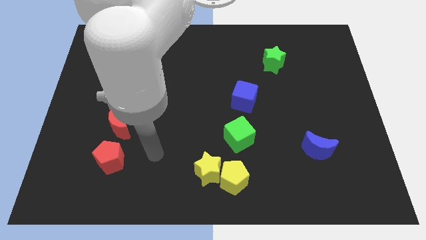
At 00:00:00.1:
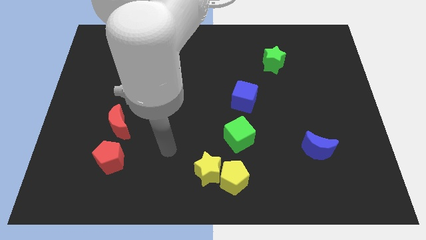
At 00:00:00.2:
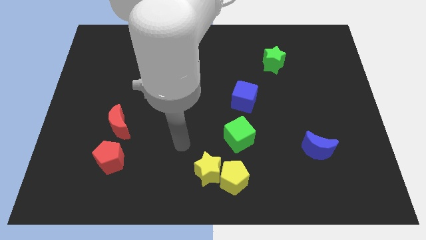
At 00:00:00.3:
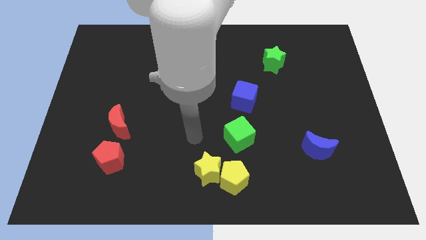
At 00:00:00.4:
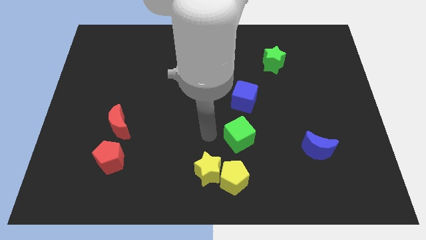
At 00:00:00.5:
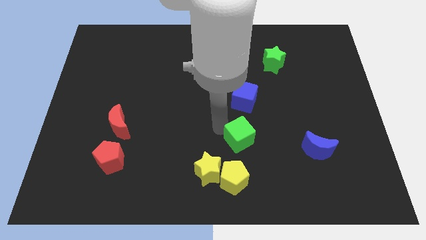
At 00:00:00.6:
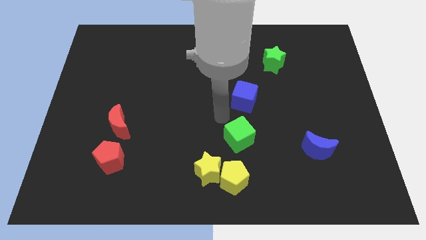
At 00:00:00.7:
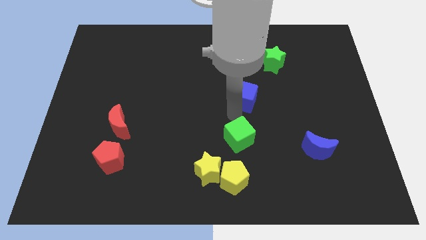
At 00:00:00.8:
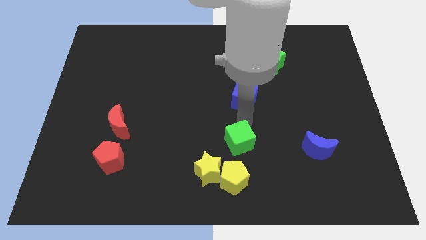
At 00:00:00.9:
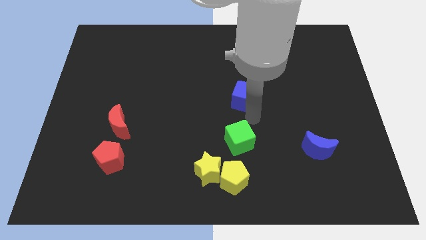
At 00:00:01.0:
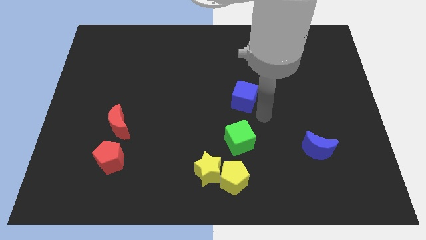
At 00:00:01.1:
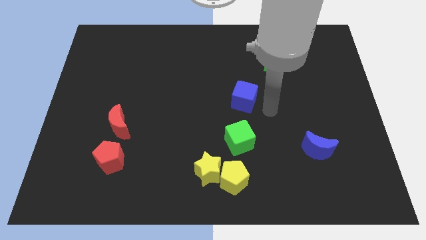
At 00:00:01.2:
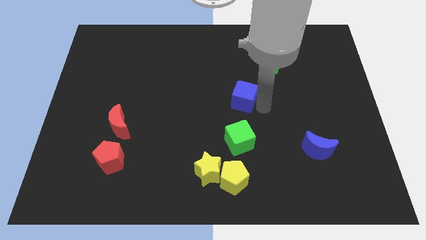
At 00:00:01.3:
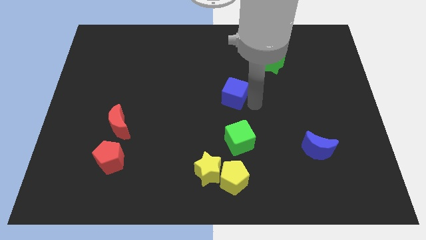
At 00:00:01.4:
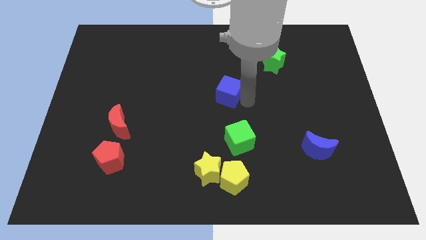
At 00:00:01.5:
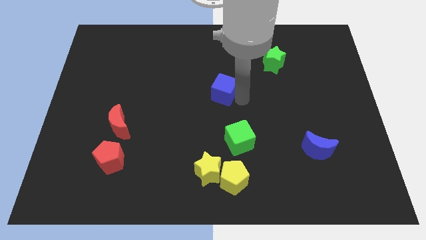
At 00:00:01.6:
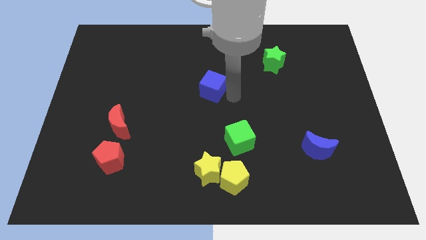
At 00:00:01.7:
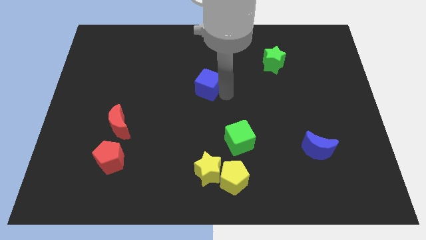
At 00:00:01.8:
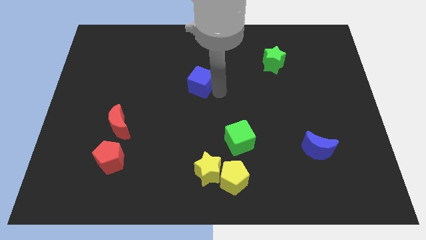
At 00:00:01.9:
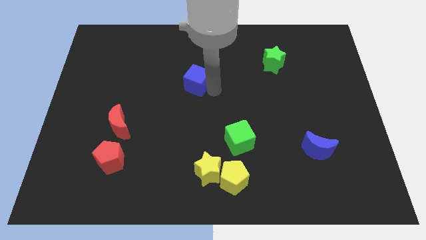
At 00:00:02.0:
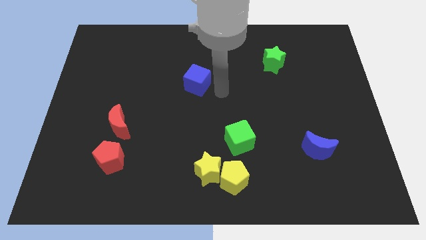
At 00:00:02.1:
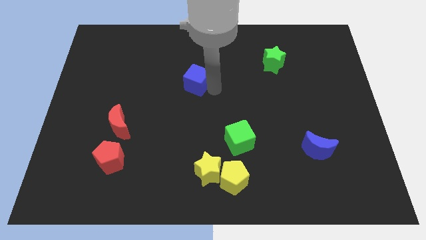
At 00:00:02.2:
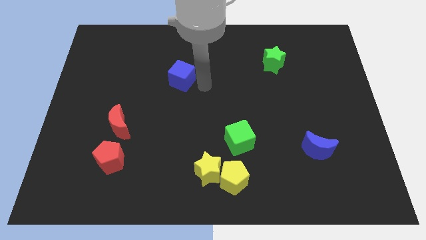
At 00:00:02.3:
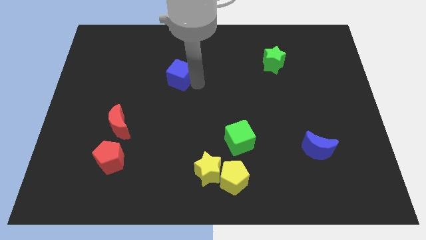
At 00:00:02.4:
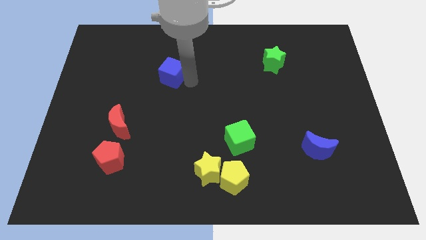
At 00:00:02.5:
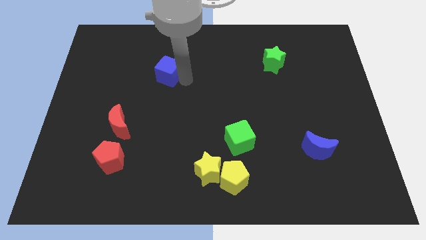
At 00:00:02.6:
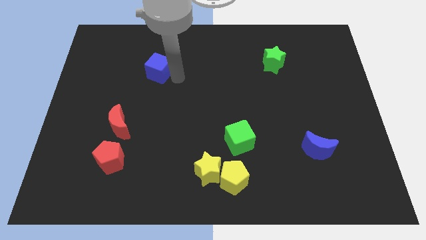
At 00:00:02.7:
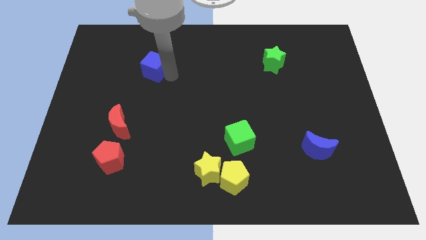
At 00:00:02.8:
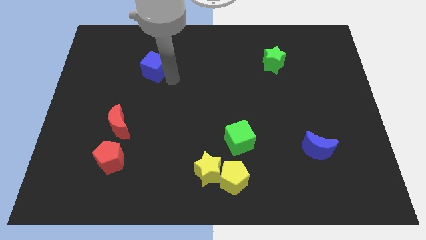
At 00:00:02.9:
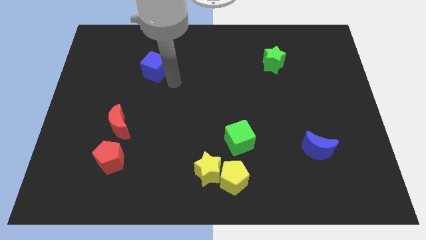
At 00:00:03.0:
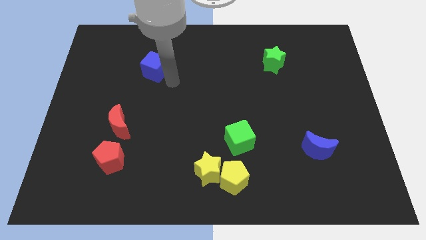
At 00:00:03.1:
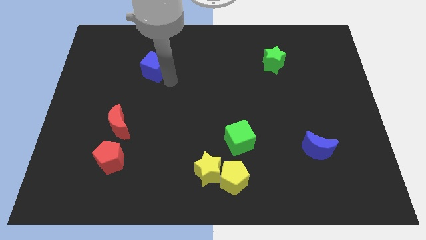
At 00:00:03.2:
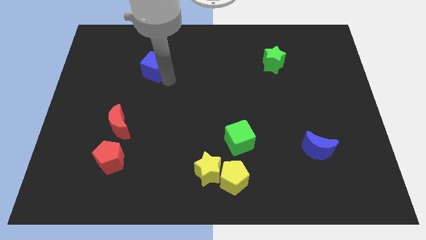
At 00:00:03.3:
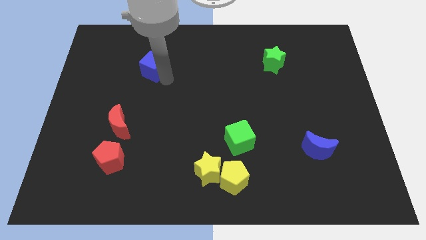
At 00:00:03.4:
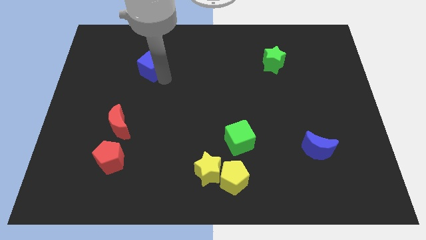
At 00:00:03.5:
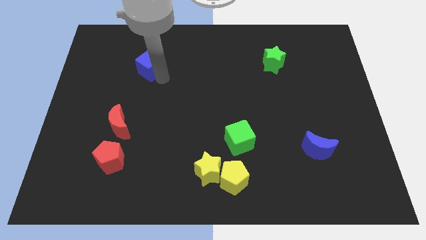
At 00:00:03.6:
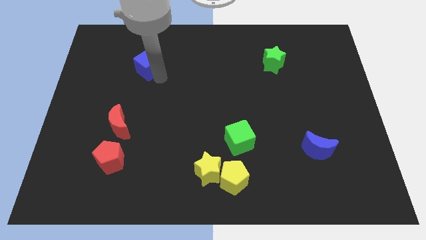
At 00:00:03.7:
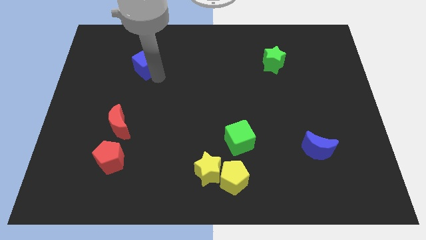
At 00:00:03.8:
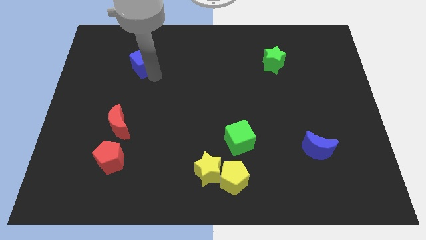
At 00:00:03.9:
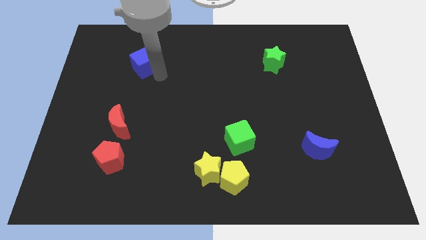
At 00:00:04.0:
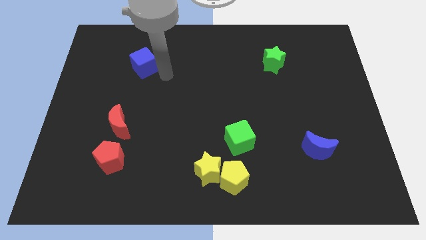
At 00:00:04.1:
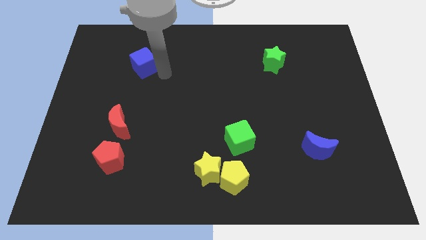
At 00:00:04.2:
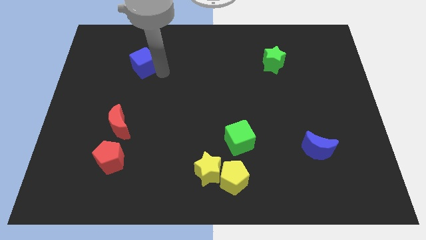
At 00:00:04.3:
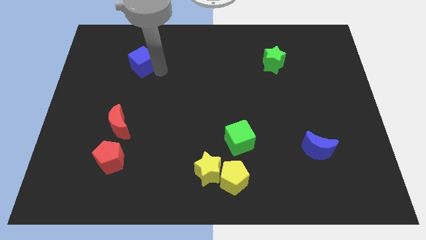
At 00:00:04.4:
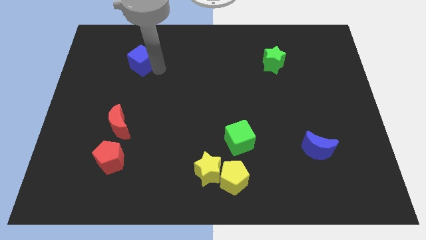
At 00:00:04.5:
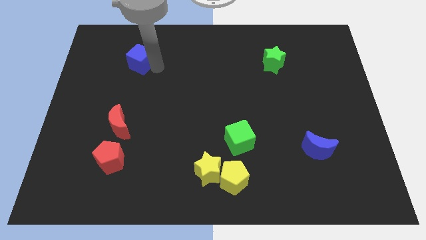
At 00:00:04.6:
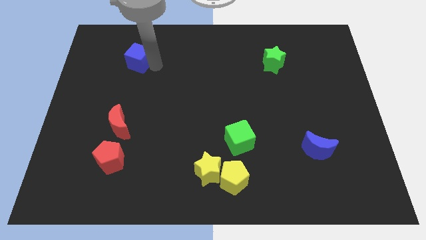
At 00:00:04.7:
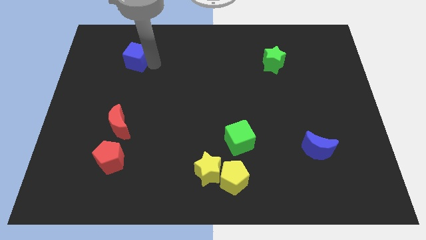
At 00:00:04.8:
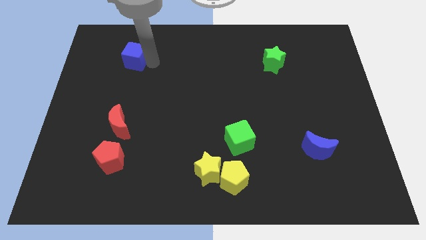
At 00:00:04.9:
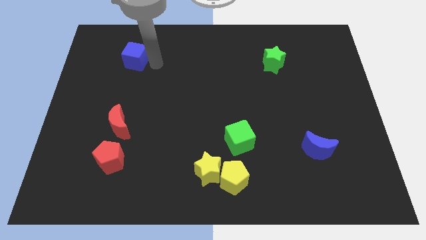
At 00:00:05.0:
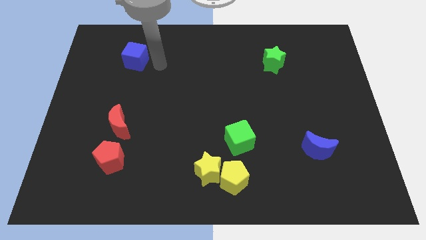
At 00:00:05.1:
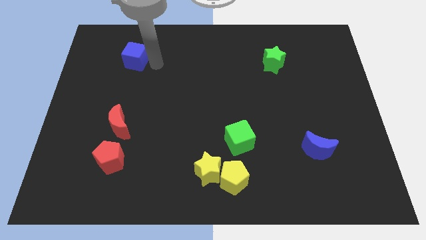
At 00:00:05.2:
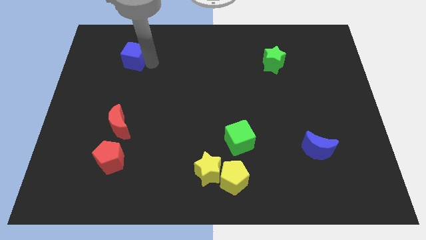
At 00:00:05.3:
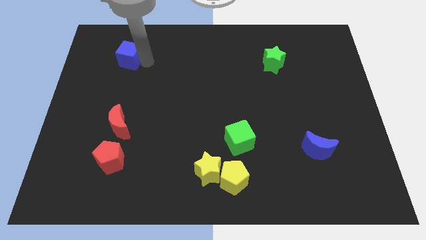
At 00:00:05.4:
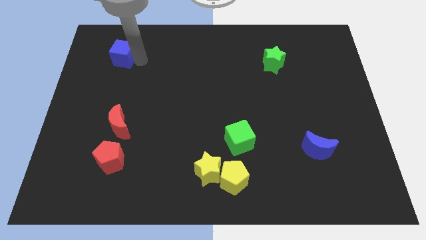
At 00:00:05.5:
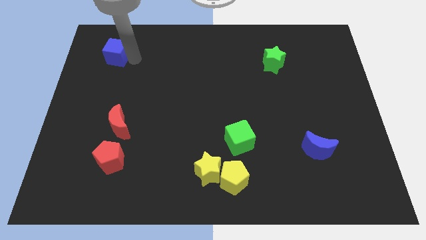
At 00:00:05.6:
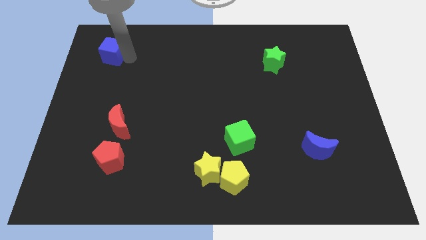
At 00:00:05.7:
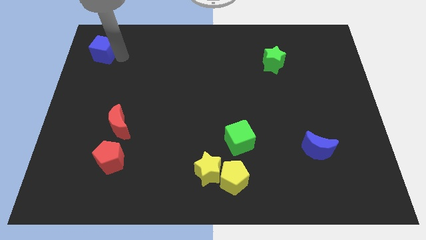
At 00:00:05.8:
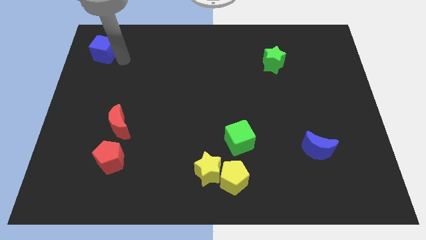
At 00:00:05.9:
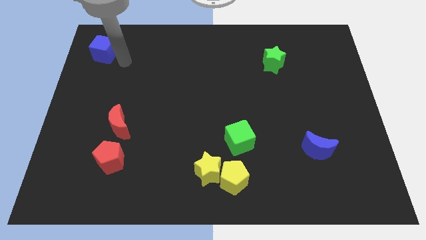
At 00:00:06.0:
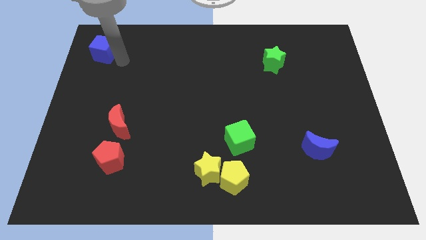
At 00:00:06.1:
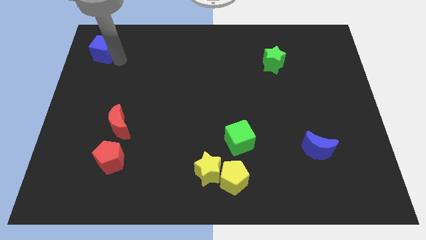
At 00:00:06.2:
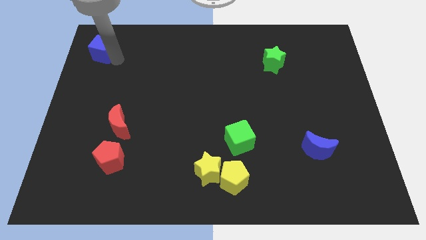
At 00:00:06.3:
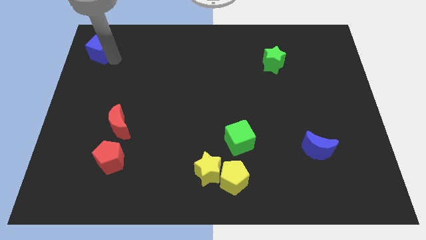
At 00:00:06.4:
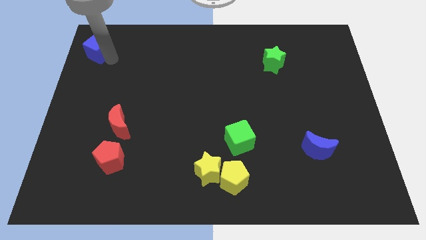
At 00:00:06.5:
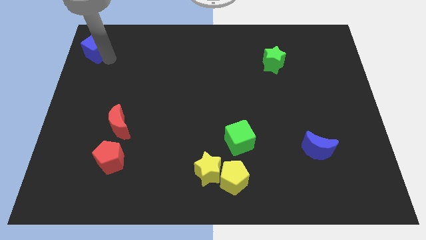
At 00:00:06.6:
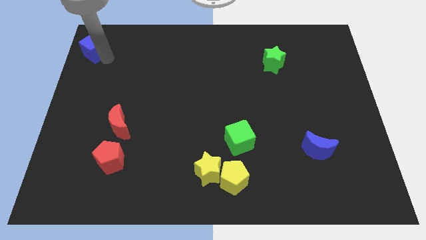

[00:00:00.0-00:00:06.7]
slide the blue cube to the top left of the board
